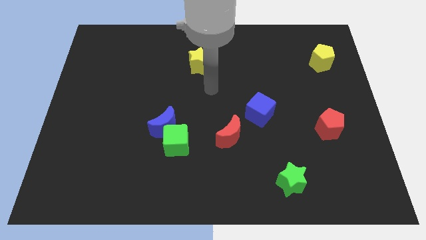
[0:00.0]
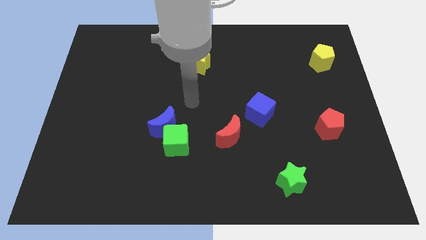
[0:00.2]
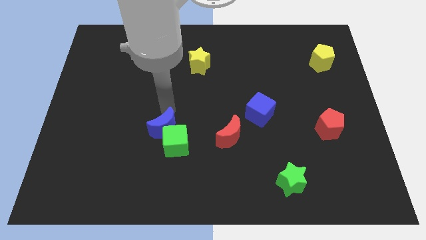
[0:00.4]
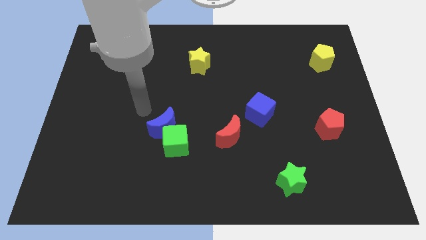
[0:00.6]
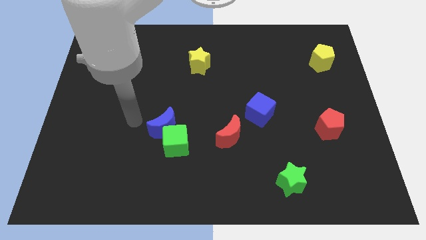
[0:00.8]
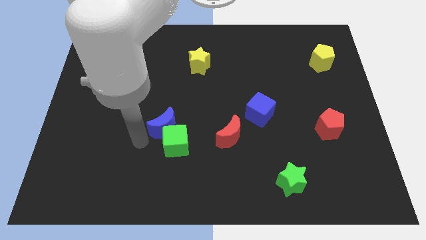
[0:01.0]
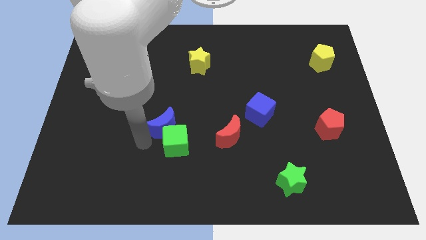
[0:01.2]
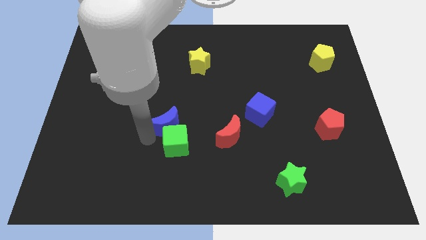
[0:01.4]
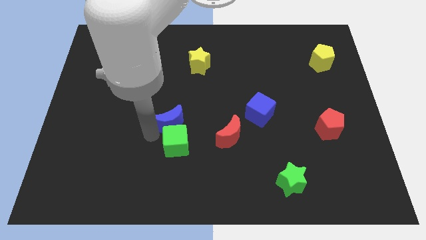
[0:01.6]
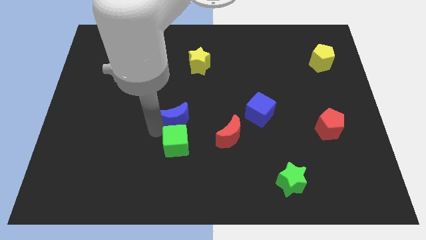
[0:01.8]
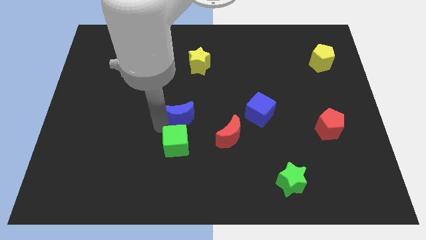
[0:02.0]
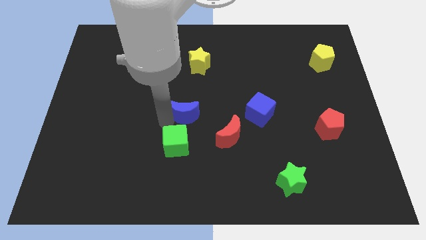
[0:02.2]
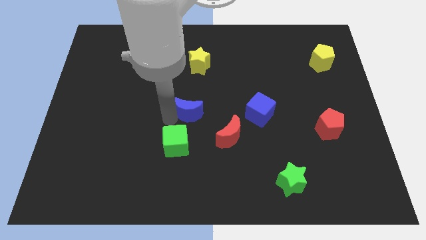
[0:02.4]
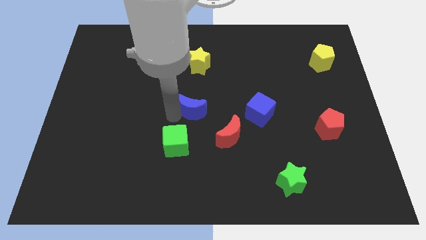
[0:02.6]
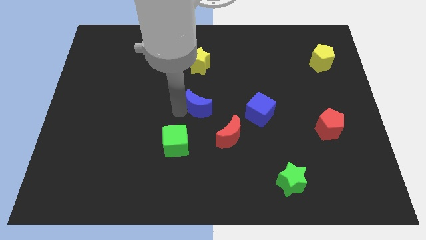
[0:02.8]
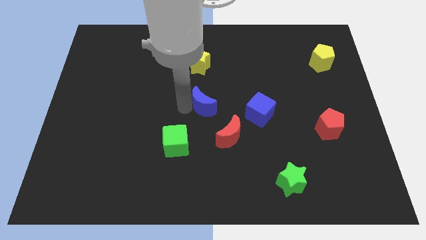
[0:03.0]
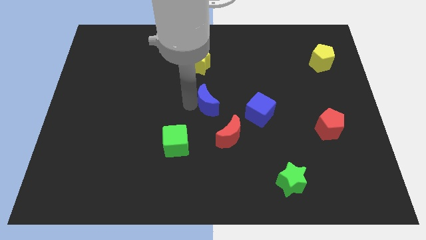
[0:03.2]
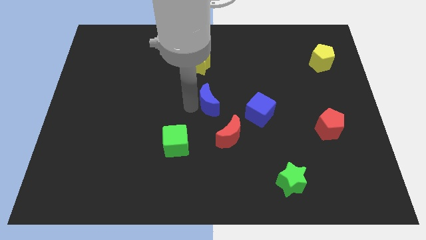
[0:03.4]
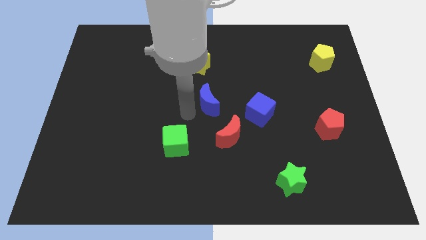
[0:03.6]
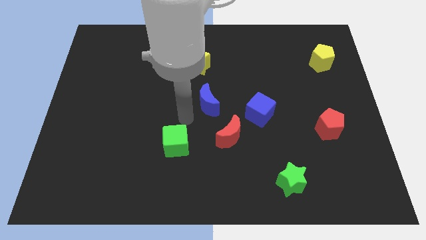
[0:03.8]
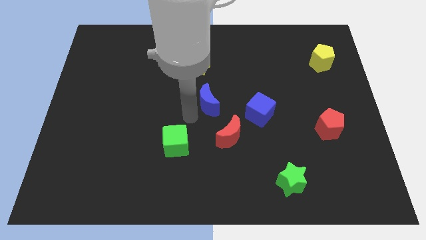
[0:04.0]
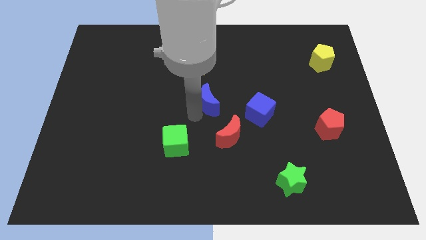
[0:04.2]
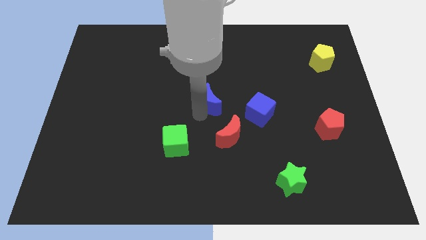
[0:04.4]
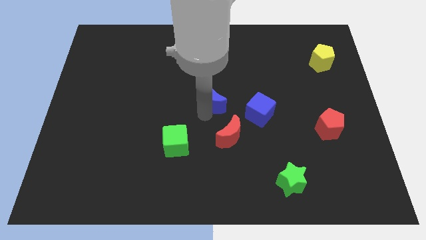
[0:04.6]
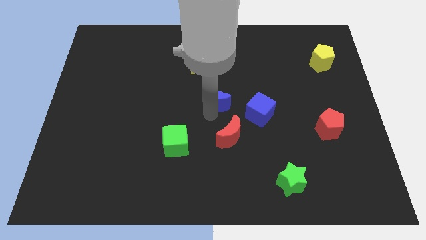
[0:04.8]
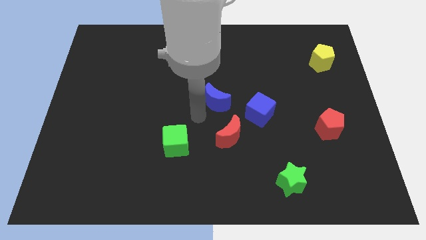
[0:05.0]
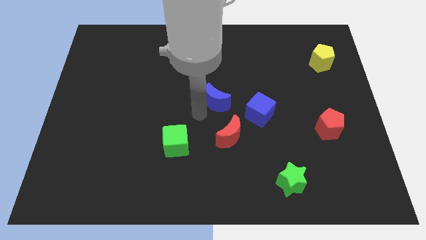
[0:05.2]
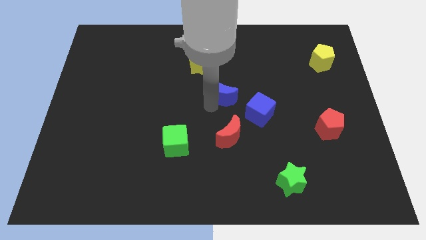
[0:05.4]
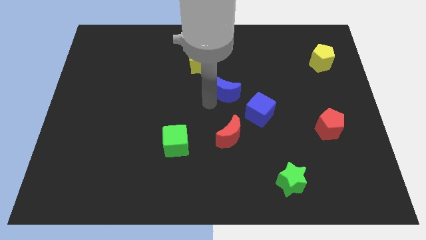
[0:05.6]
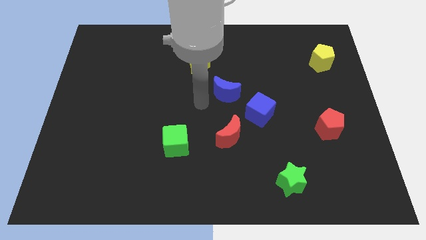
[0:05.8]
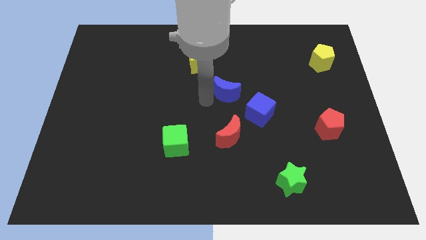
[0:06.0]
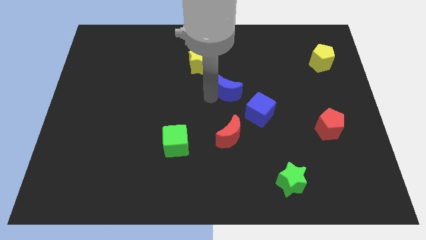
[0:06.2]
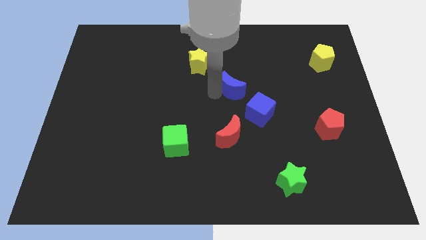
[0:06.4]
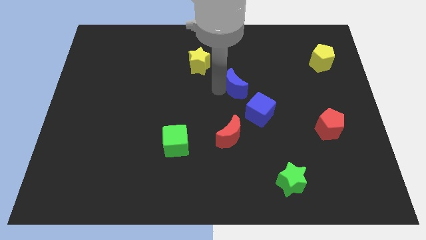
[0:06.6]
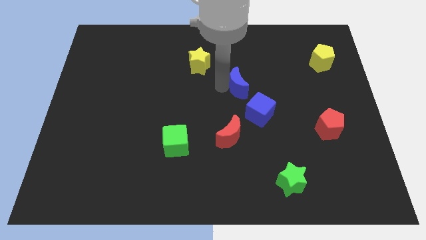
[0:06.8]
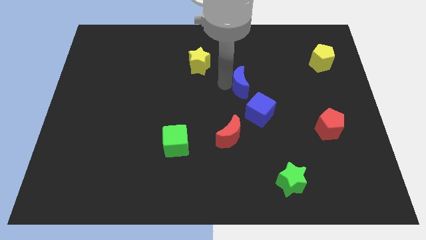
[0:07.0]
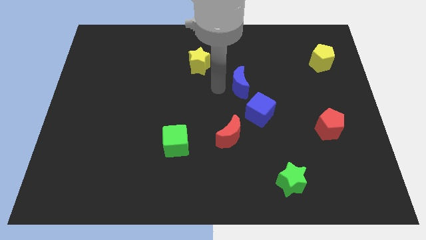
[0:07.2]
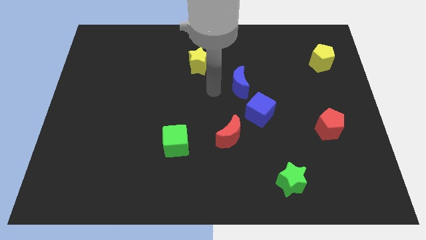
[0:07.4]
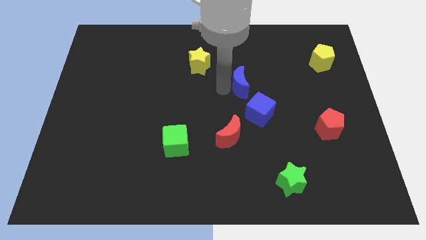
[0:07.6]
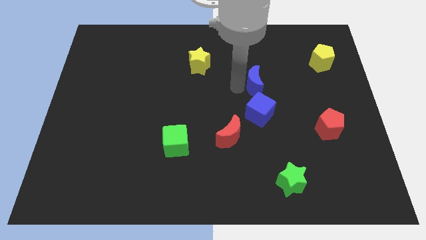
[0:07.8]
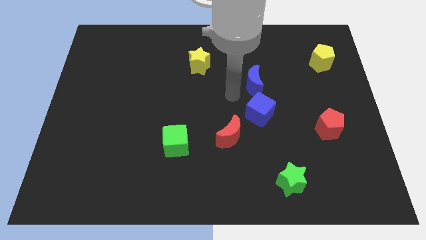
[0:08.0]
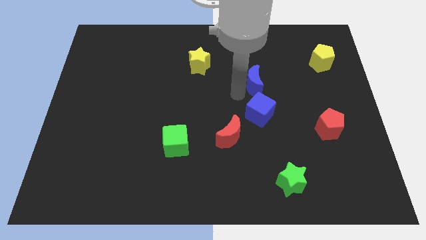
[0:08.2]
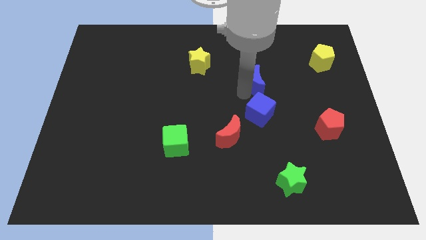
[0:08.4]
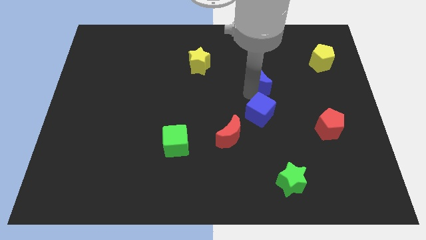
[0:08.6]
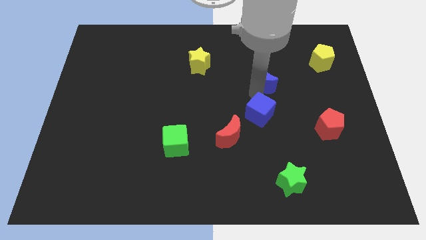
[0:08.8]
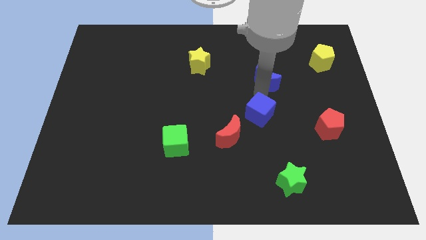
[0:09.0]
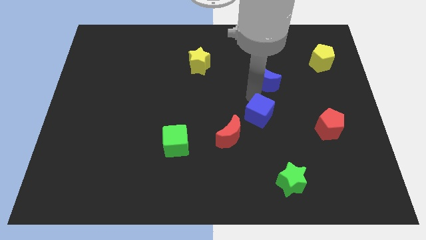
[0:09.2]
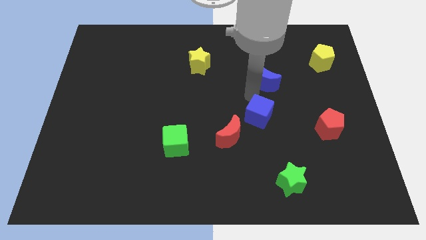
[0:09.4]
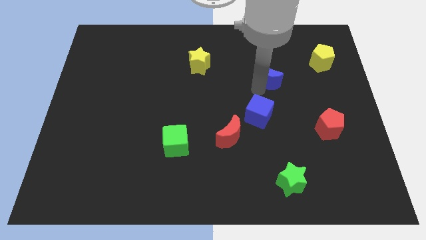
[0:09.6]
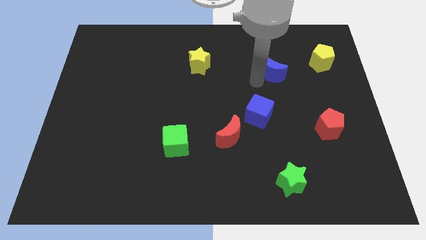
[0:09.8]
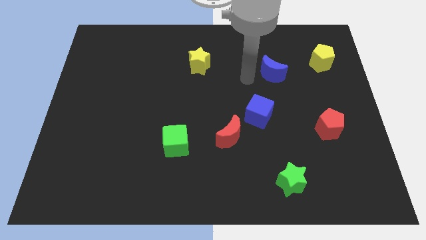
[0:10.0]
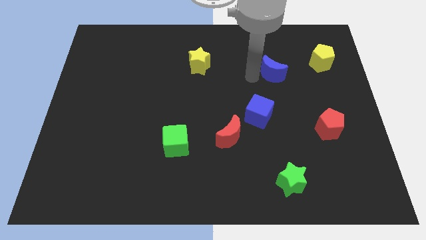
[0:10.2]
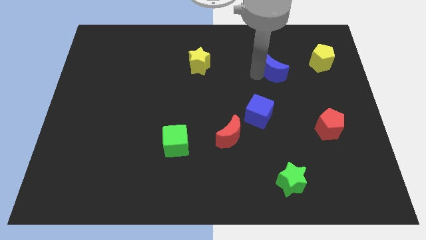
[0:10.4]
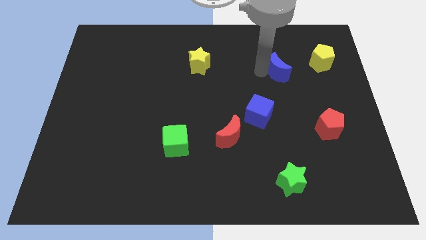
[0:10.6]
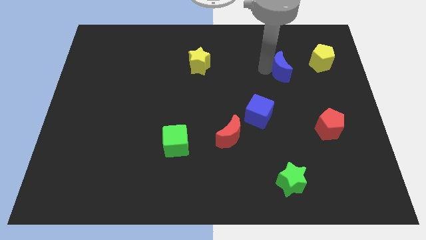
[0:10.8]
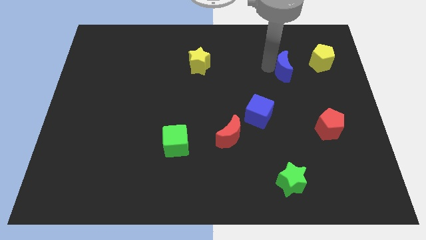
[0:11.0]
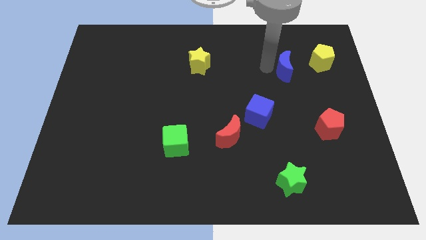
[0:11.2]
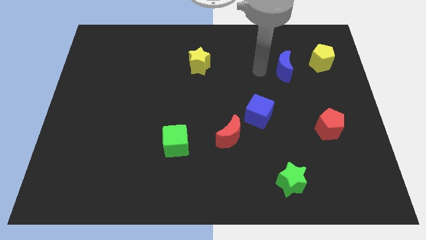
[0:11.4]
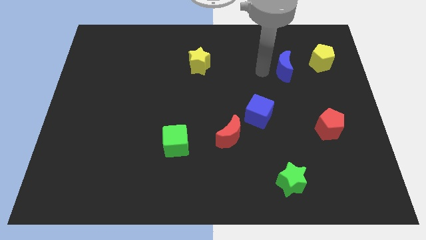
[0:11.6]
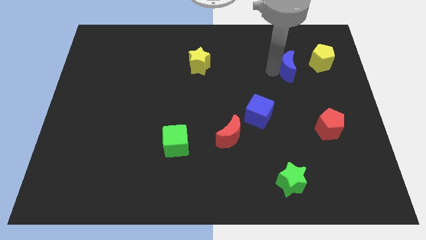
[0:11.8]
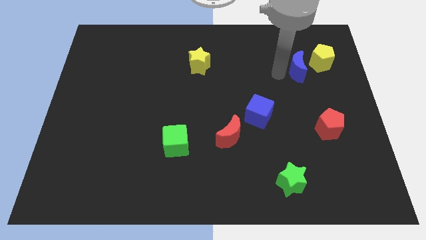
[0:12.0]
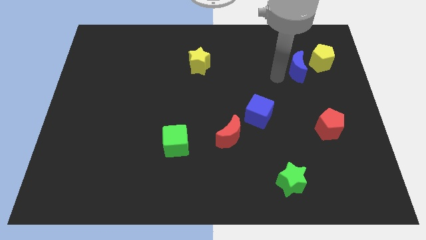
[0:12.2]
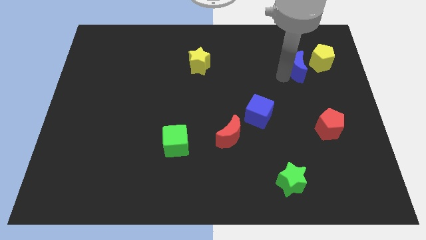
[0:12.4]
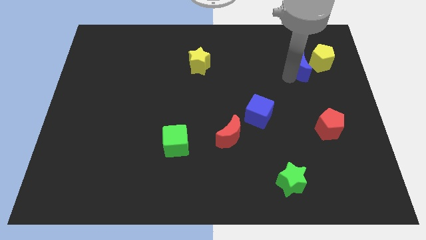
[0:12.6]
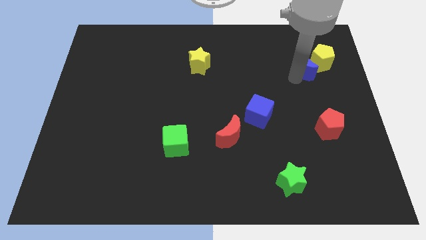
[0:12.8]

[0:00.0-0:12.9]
put the blue moon close to the yellow pentagon

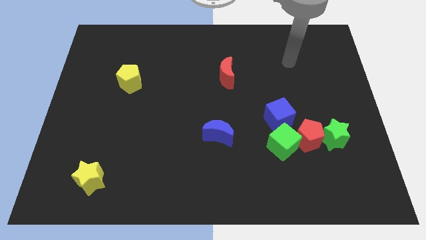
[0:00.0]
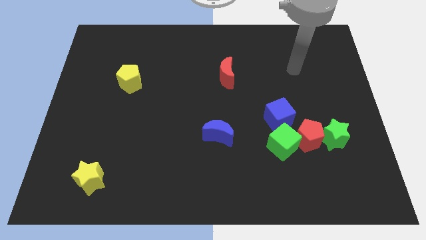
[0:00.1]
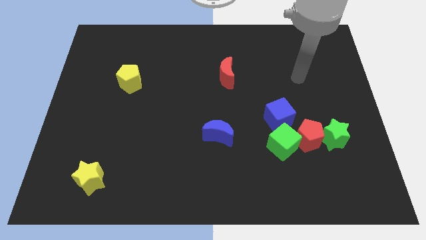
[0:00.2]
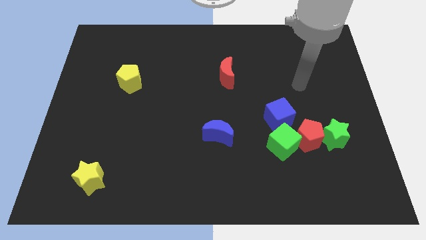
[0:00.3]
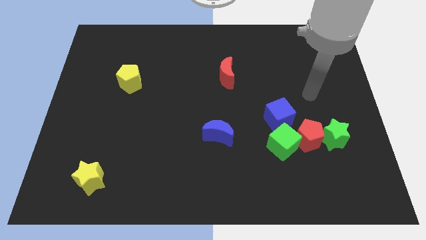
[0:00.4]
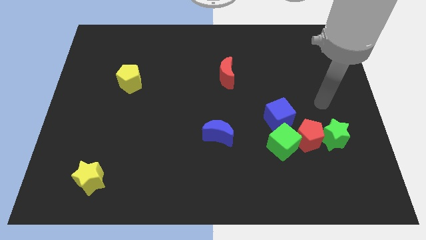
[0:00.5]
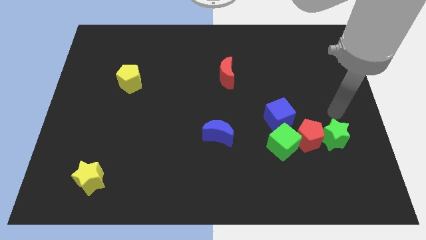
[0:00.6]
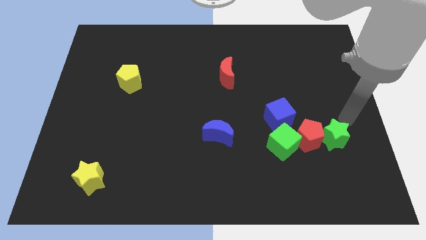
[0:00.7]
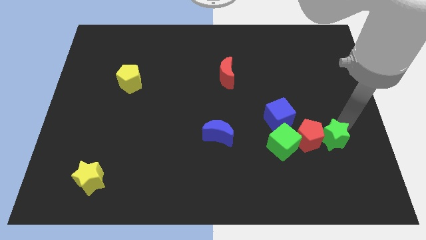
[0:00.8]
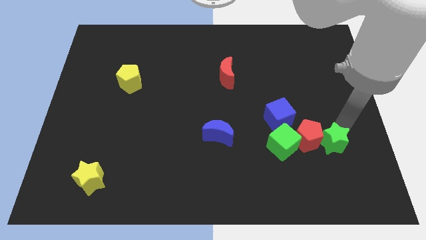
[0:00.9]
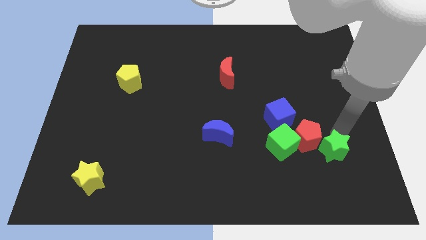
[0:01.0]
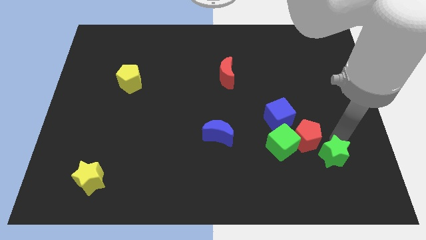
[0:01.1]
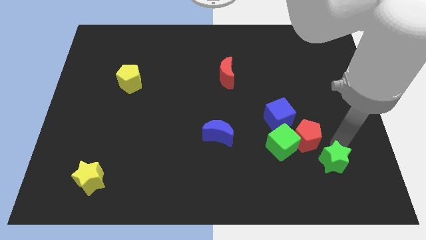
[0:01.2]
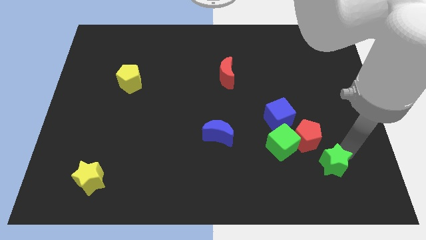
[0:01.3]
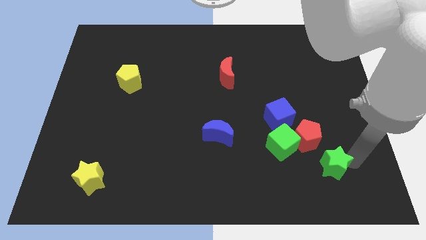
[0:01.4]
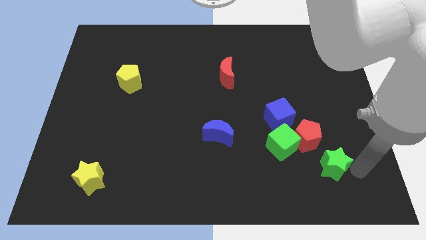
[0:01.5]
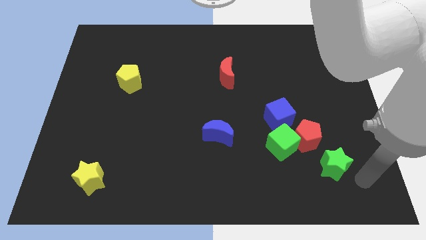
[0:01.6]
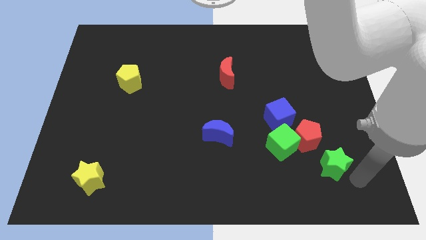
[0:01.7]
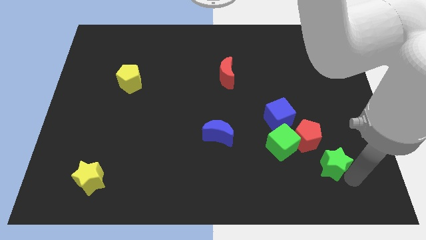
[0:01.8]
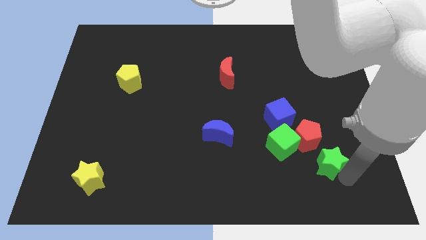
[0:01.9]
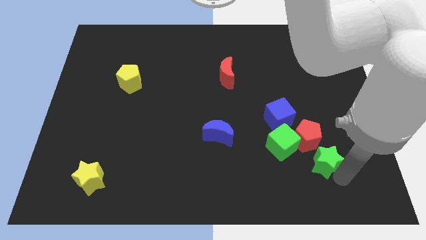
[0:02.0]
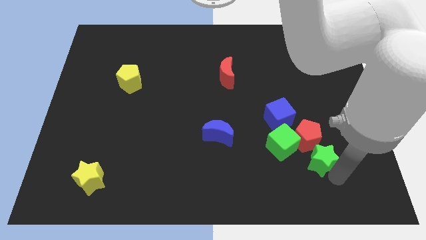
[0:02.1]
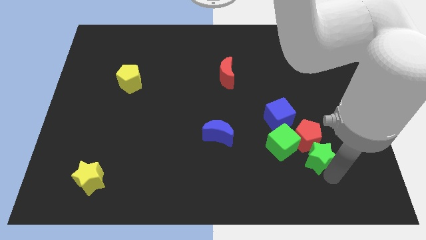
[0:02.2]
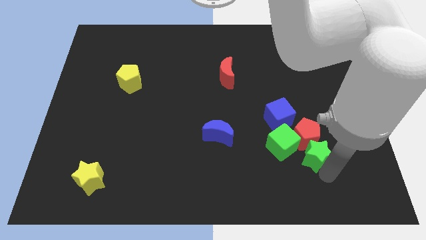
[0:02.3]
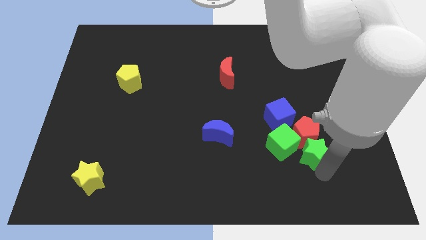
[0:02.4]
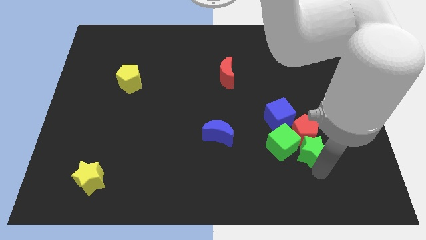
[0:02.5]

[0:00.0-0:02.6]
put the green star to the green cube
